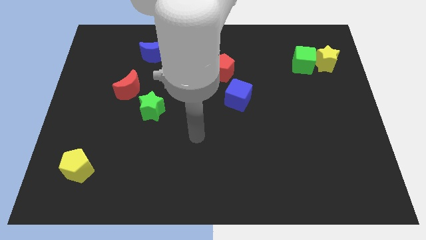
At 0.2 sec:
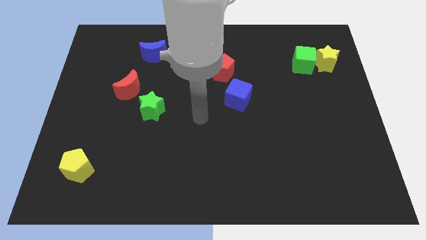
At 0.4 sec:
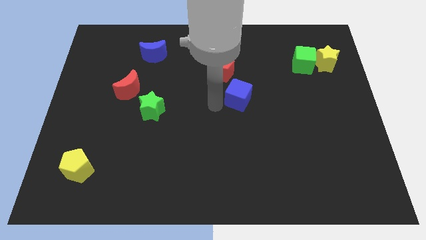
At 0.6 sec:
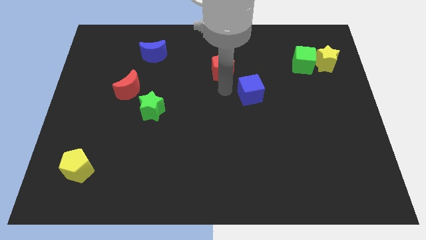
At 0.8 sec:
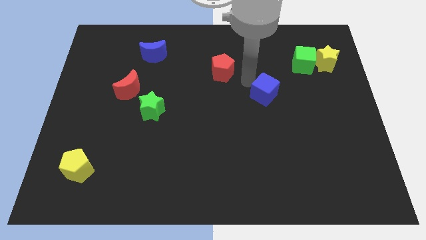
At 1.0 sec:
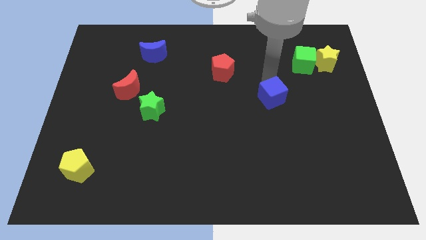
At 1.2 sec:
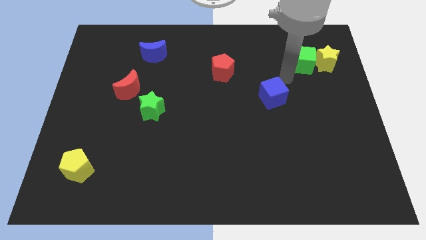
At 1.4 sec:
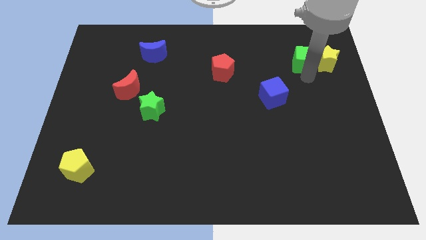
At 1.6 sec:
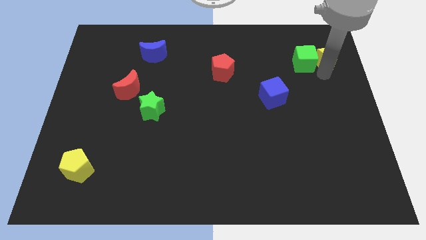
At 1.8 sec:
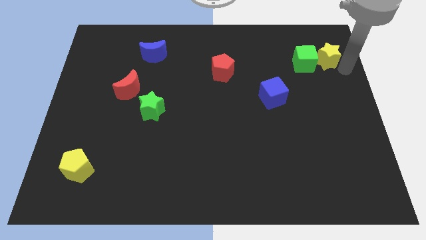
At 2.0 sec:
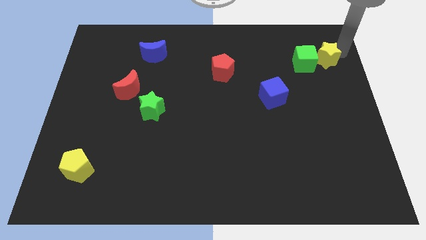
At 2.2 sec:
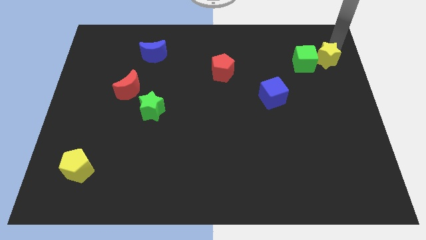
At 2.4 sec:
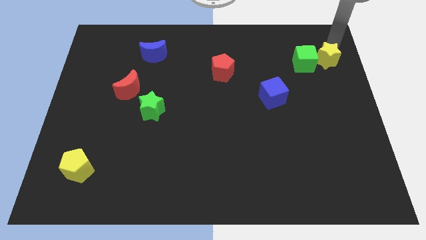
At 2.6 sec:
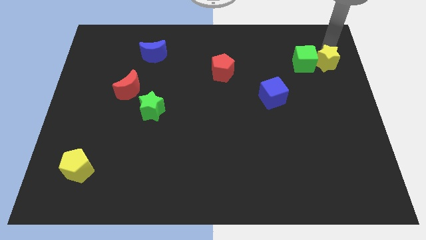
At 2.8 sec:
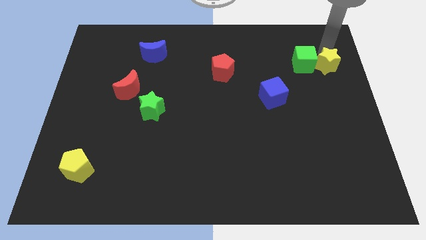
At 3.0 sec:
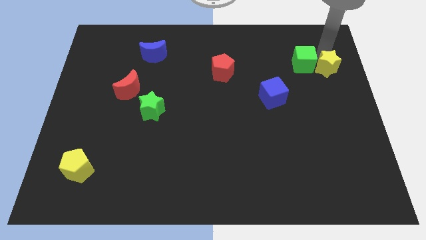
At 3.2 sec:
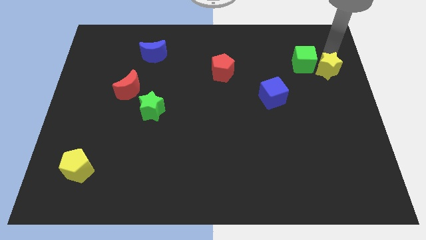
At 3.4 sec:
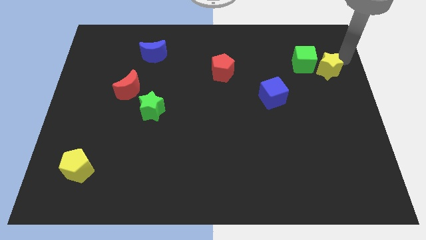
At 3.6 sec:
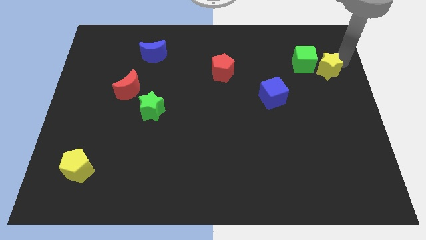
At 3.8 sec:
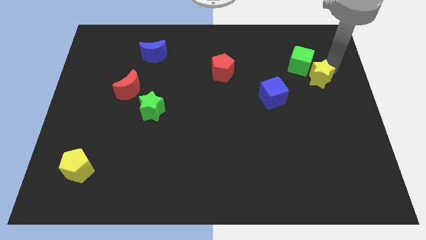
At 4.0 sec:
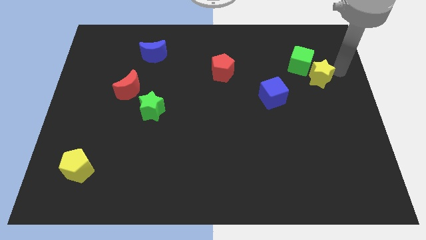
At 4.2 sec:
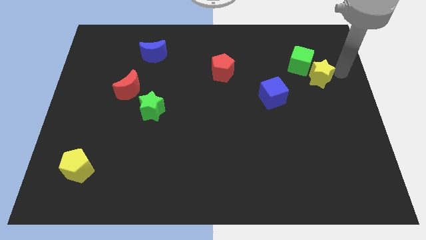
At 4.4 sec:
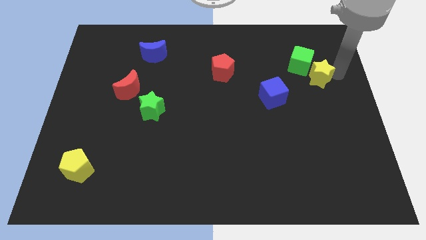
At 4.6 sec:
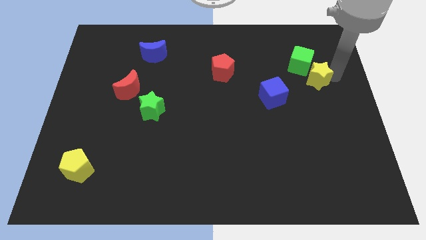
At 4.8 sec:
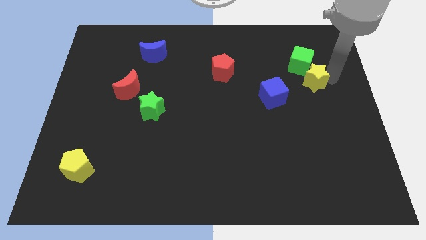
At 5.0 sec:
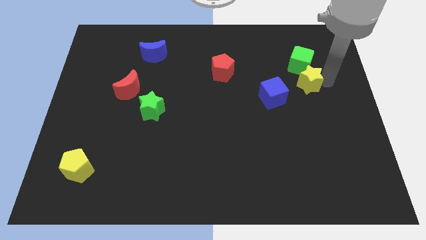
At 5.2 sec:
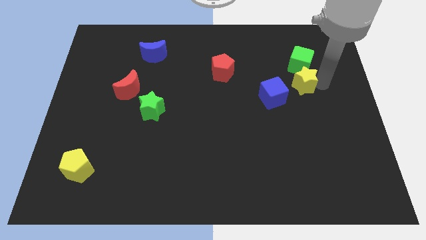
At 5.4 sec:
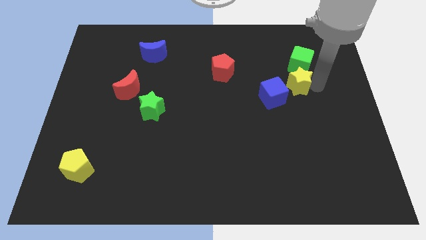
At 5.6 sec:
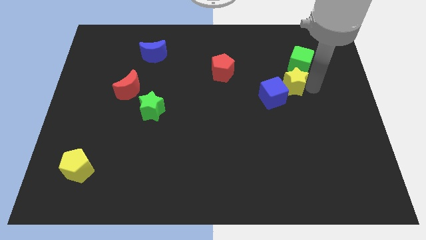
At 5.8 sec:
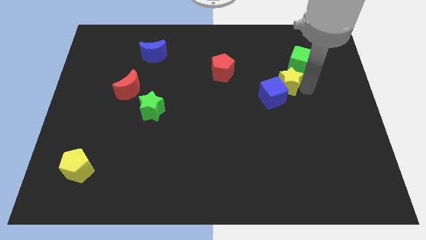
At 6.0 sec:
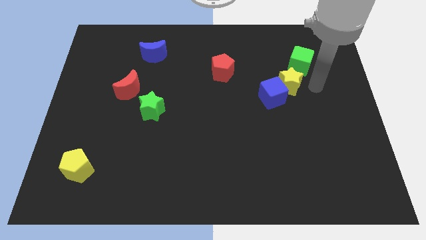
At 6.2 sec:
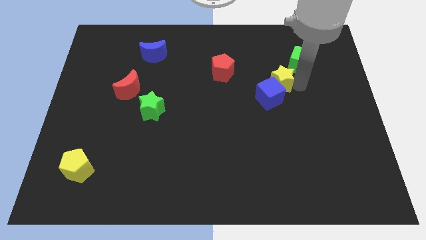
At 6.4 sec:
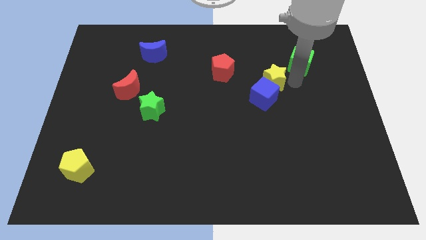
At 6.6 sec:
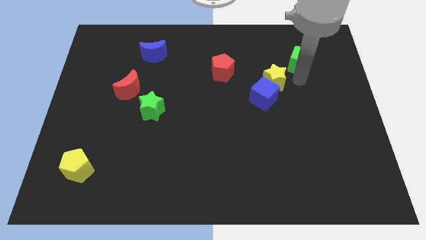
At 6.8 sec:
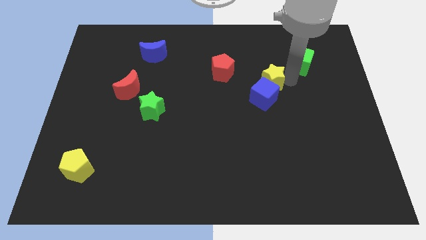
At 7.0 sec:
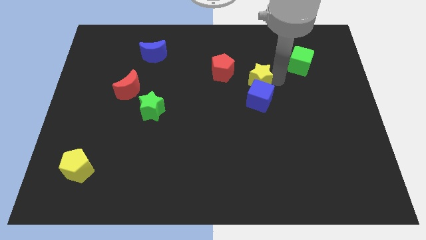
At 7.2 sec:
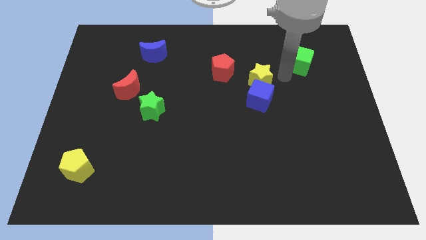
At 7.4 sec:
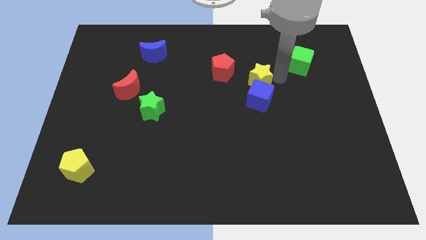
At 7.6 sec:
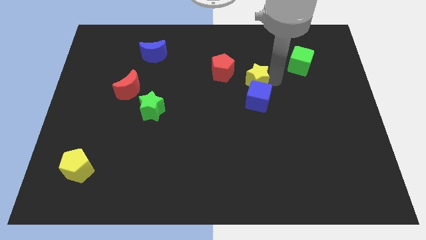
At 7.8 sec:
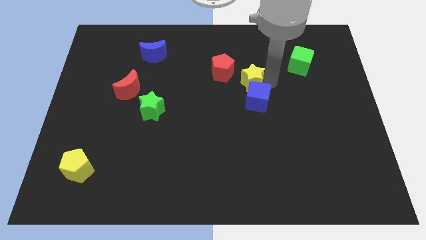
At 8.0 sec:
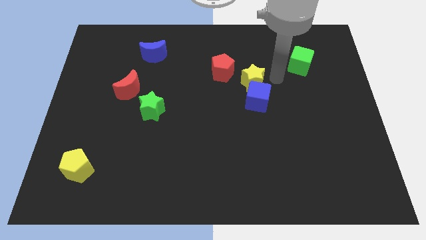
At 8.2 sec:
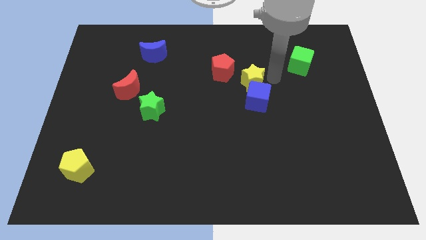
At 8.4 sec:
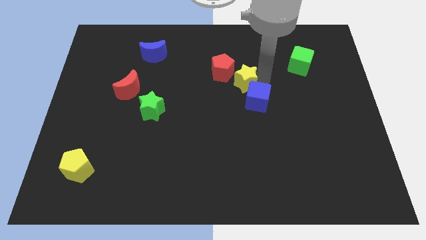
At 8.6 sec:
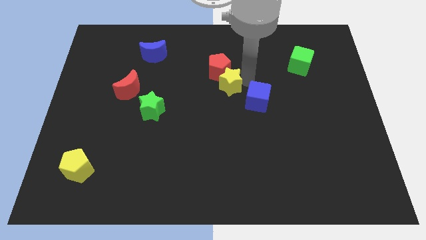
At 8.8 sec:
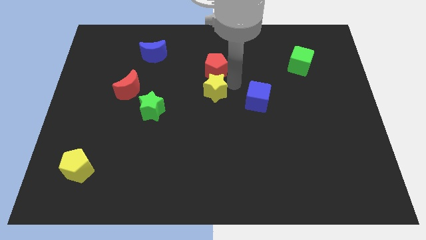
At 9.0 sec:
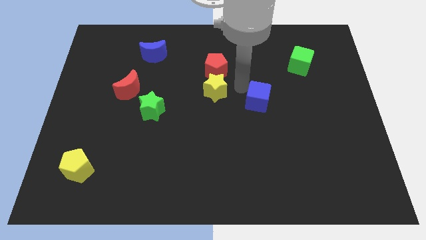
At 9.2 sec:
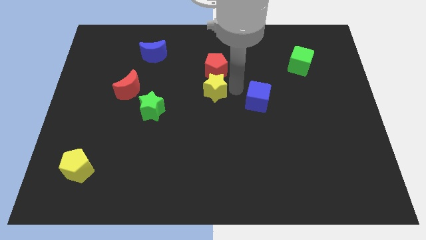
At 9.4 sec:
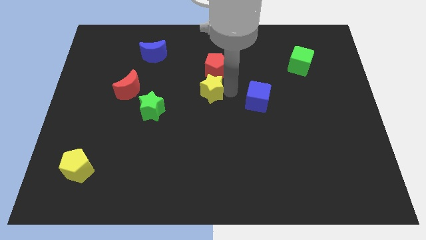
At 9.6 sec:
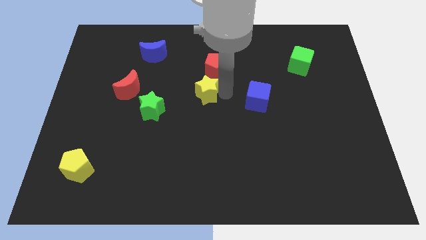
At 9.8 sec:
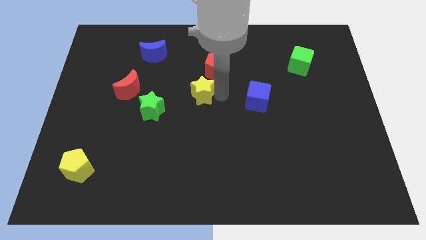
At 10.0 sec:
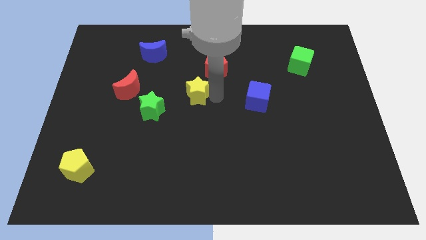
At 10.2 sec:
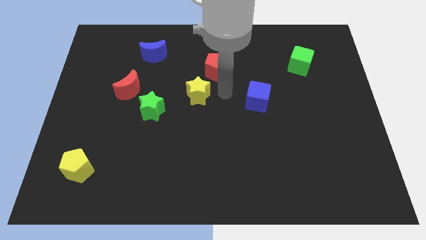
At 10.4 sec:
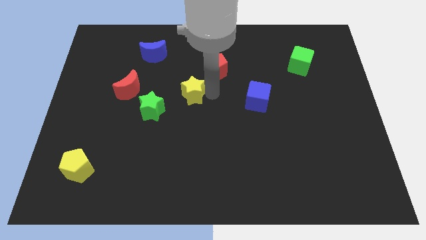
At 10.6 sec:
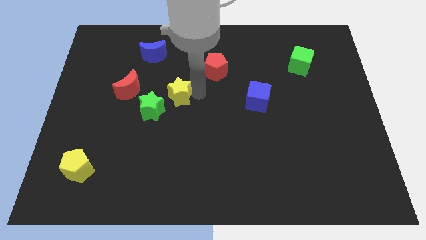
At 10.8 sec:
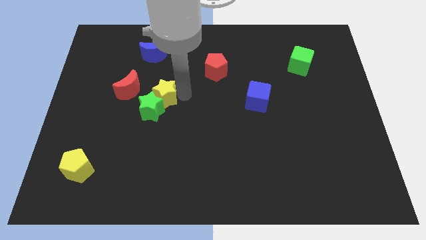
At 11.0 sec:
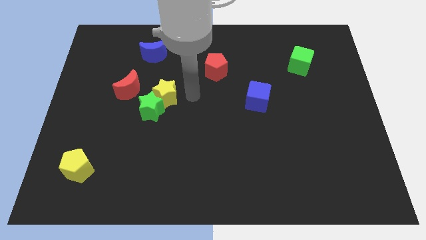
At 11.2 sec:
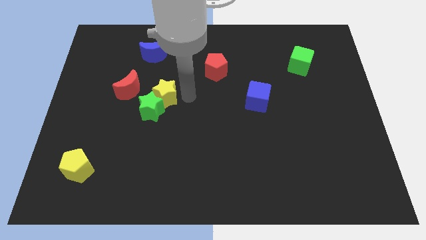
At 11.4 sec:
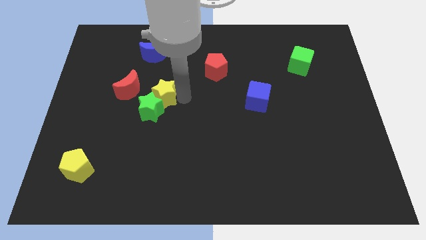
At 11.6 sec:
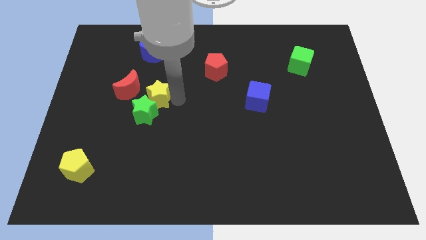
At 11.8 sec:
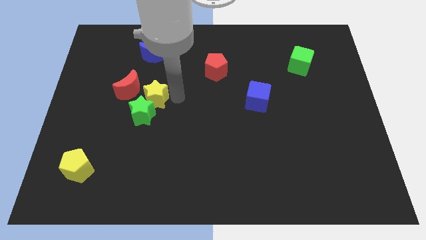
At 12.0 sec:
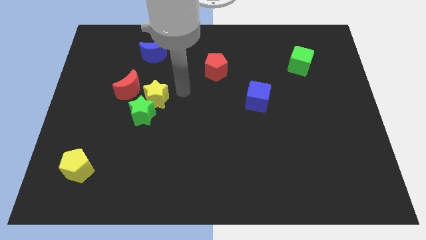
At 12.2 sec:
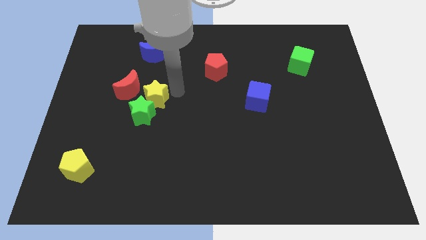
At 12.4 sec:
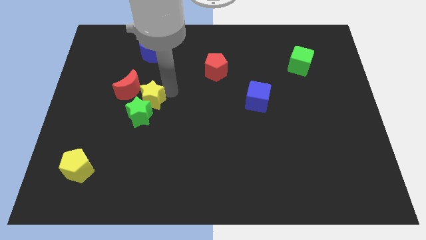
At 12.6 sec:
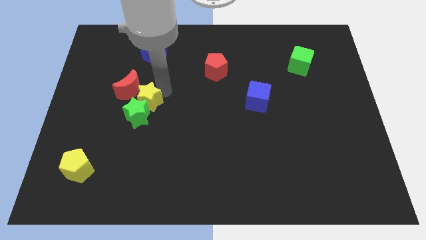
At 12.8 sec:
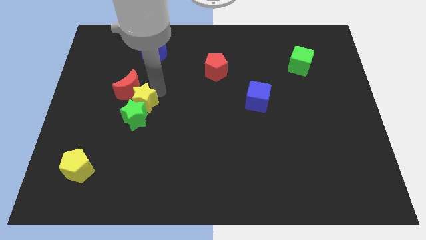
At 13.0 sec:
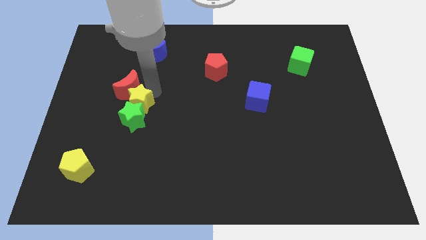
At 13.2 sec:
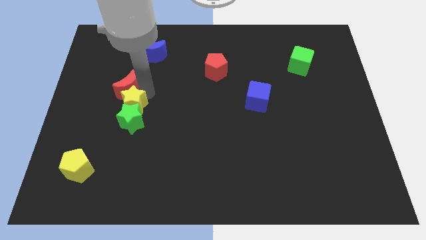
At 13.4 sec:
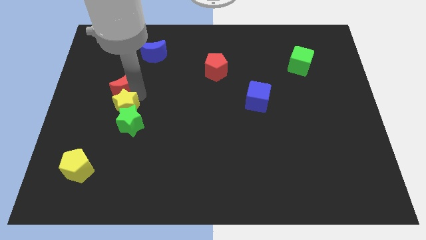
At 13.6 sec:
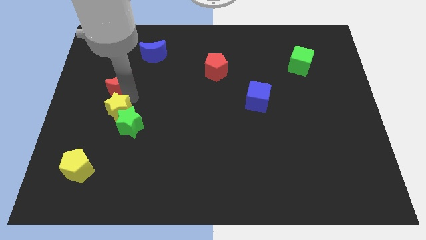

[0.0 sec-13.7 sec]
push the yellow star to the left of the green star
